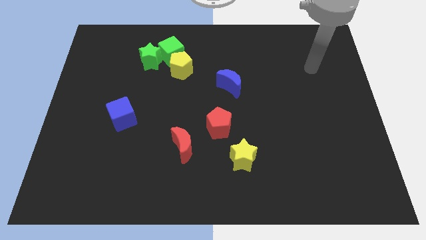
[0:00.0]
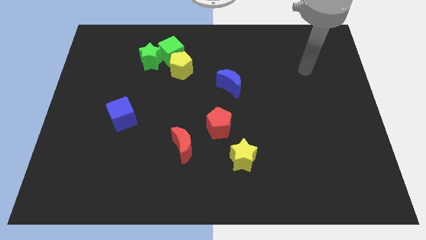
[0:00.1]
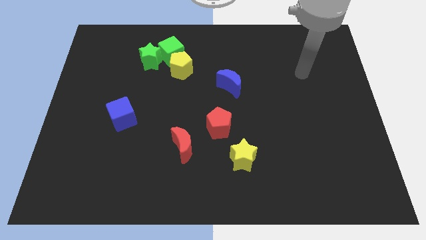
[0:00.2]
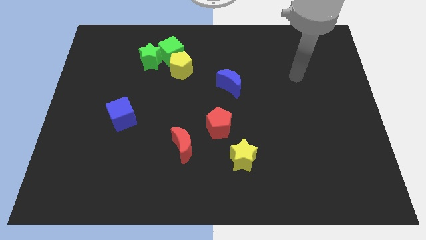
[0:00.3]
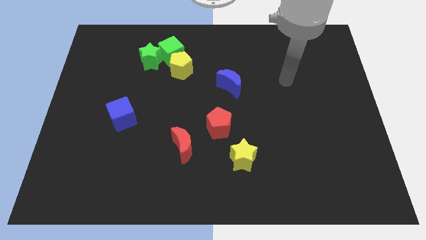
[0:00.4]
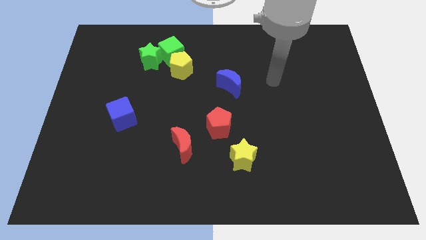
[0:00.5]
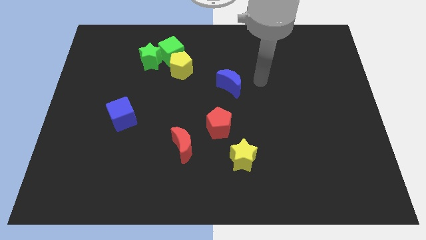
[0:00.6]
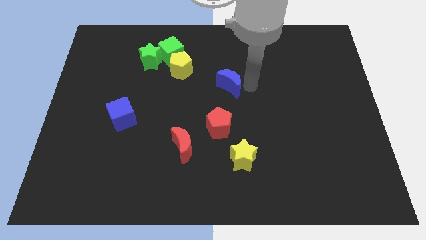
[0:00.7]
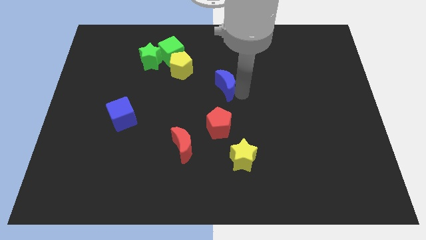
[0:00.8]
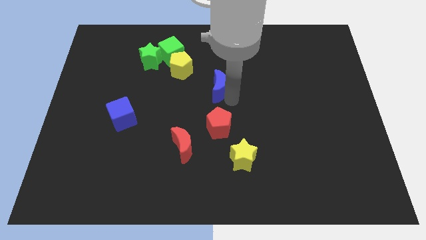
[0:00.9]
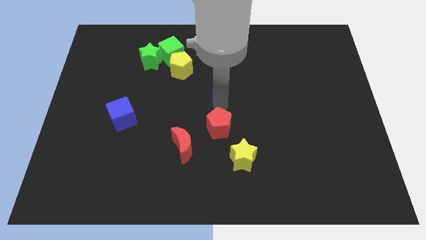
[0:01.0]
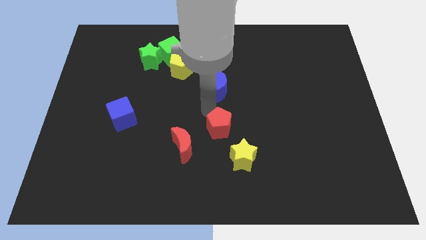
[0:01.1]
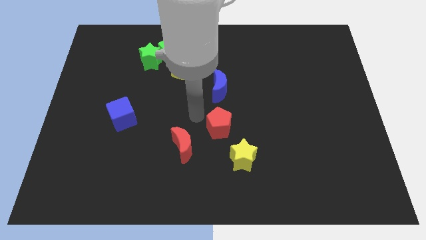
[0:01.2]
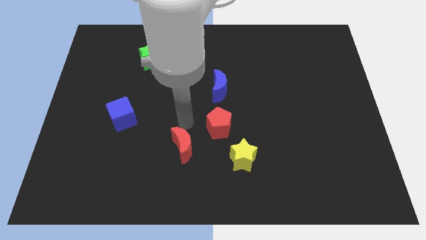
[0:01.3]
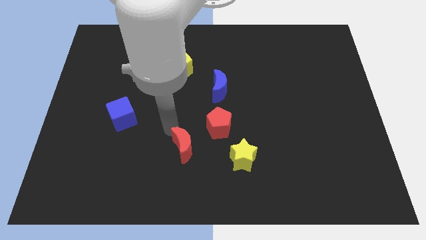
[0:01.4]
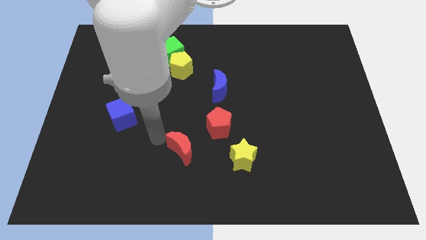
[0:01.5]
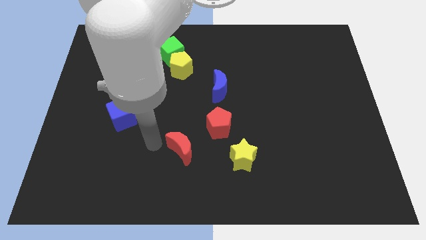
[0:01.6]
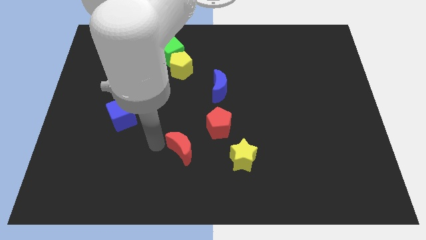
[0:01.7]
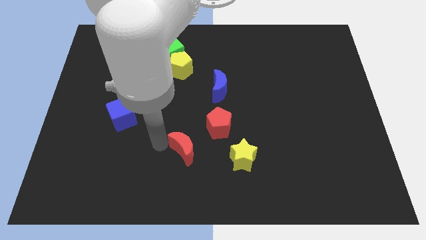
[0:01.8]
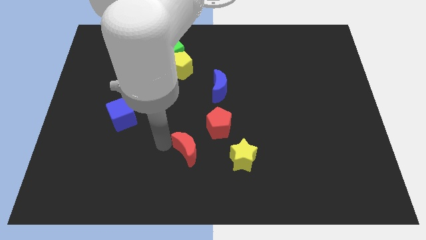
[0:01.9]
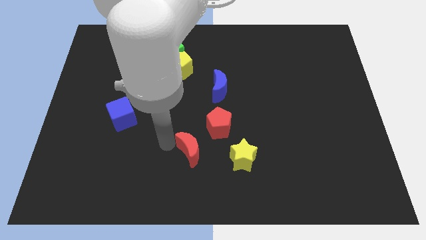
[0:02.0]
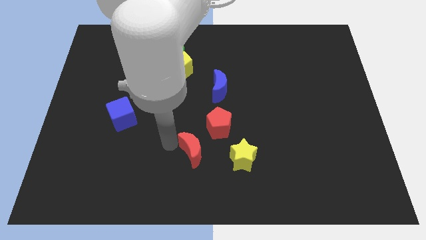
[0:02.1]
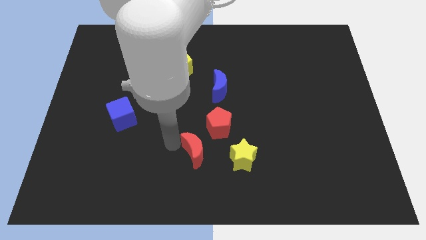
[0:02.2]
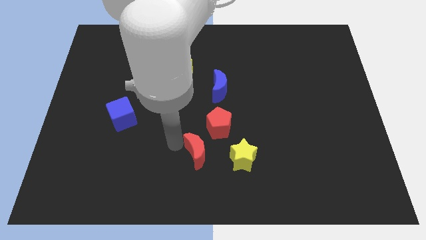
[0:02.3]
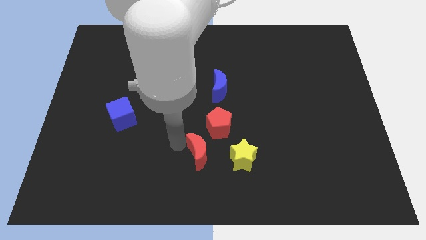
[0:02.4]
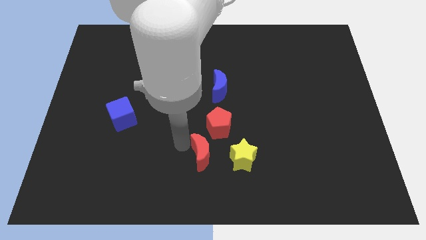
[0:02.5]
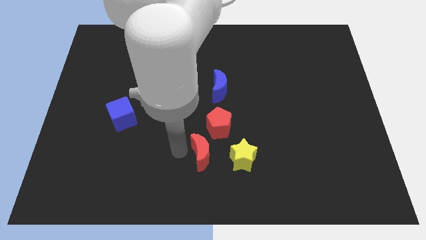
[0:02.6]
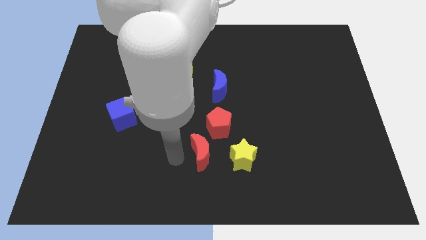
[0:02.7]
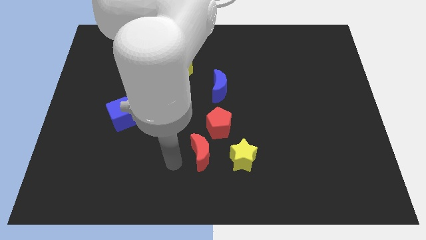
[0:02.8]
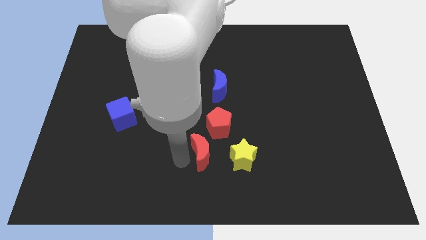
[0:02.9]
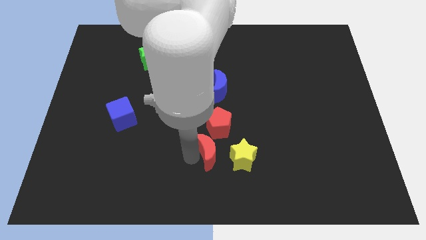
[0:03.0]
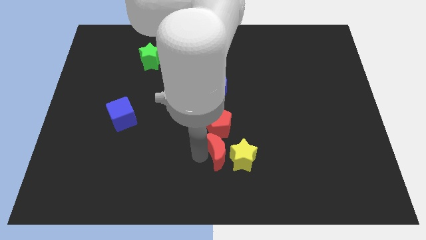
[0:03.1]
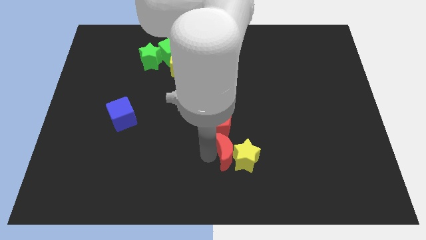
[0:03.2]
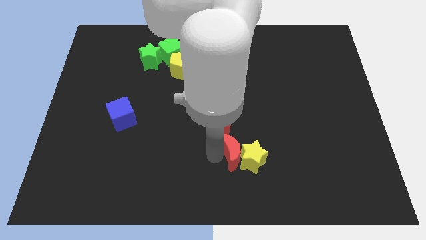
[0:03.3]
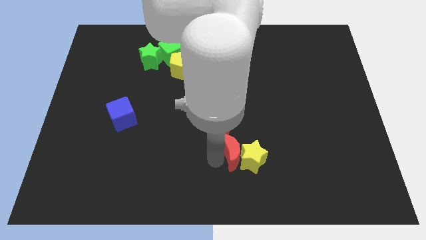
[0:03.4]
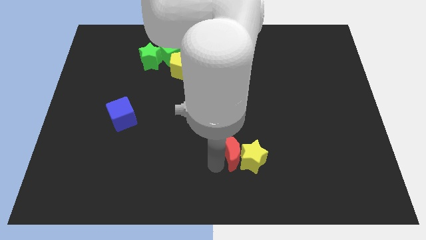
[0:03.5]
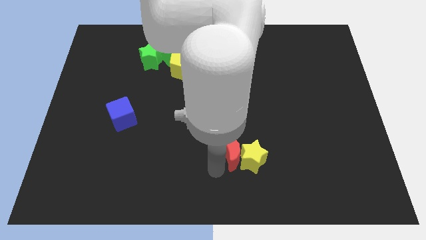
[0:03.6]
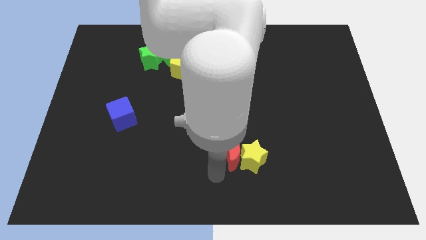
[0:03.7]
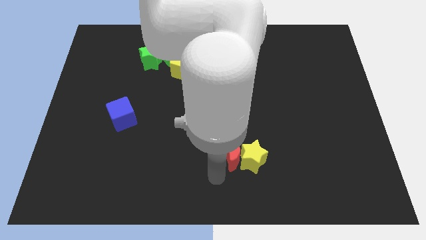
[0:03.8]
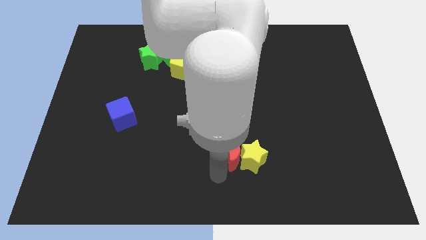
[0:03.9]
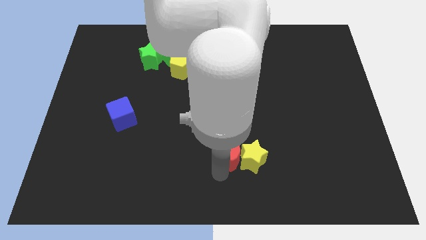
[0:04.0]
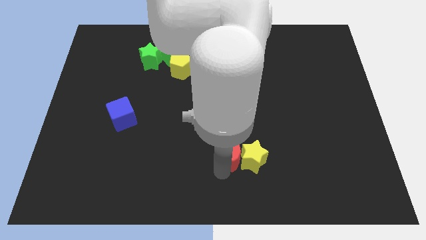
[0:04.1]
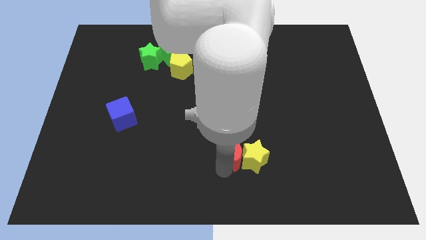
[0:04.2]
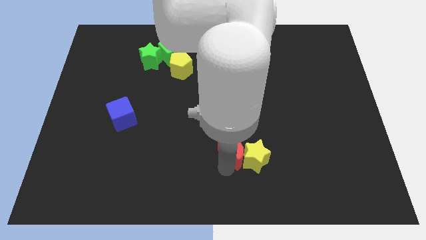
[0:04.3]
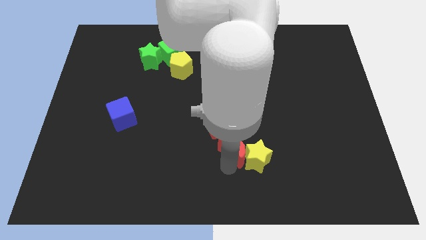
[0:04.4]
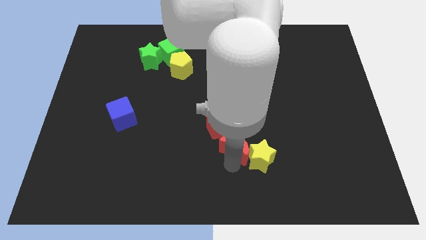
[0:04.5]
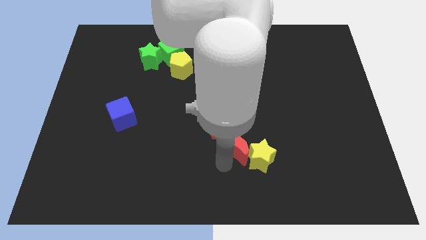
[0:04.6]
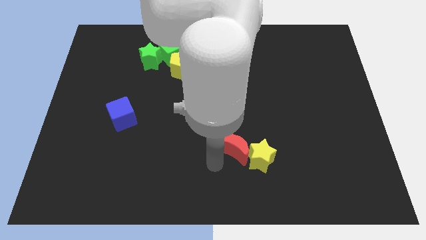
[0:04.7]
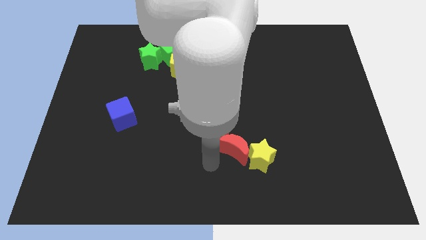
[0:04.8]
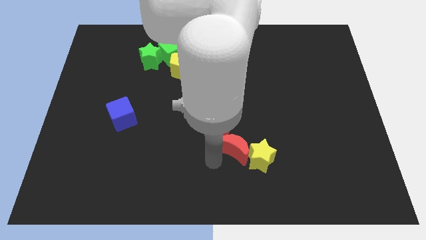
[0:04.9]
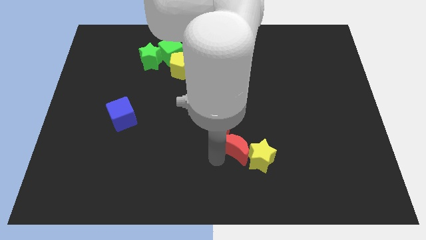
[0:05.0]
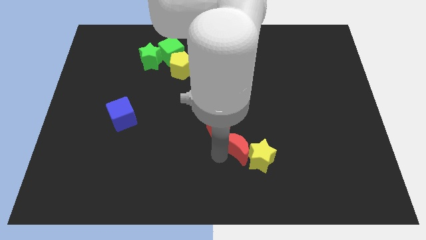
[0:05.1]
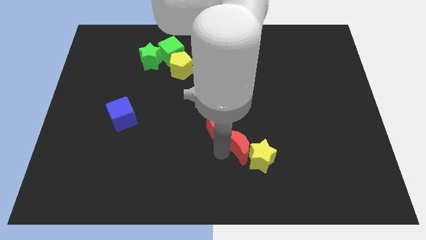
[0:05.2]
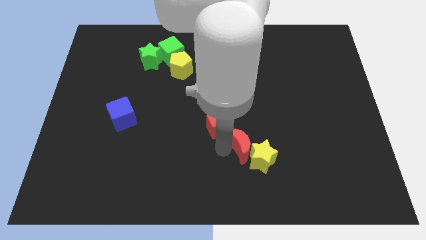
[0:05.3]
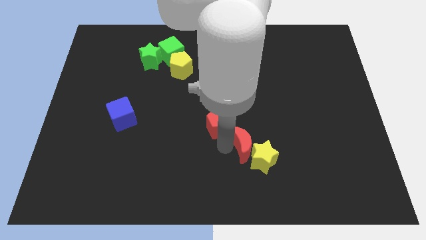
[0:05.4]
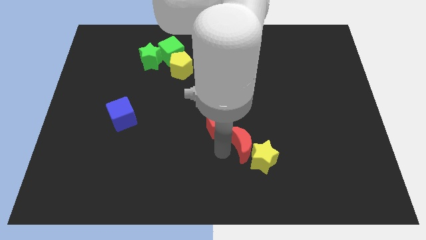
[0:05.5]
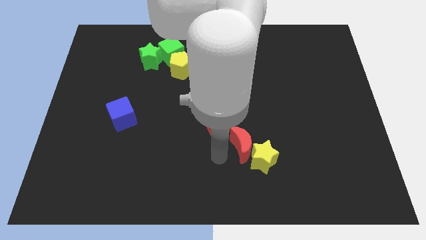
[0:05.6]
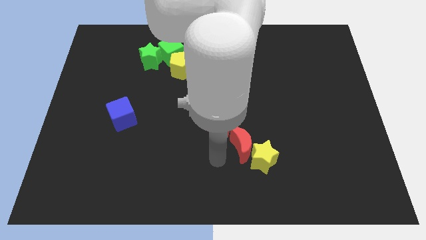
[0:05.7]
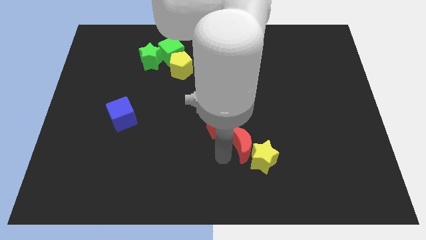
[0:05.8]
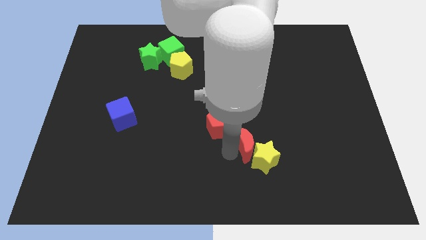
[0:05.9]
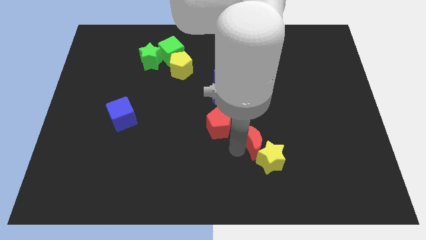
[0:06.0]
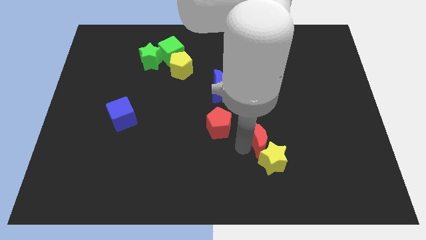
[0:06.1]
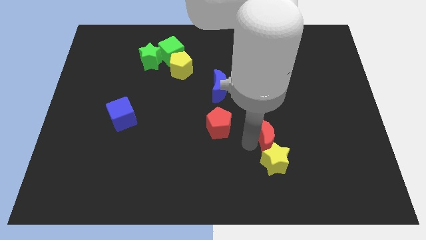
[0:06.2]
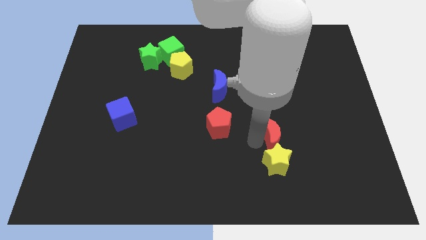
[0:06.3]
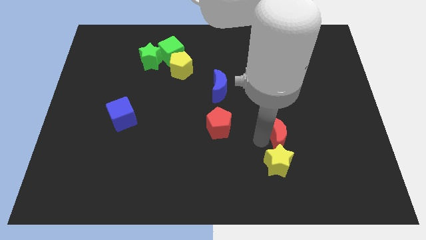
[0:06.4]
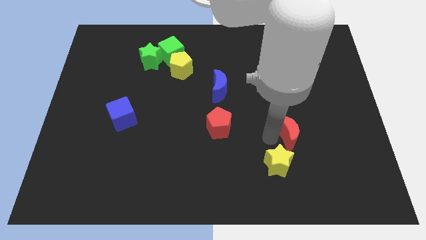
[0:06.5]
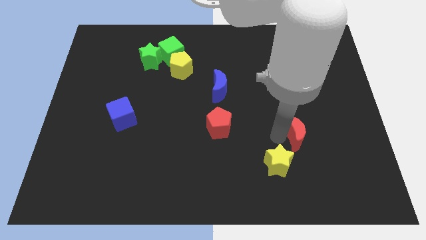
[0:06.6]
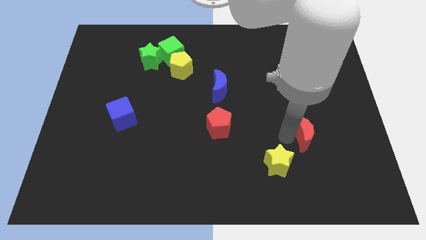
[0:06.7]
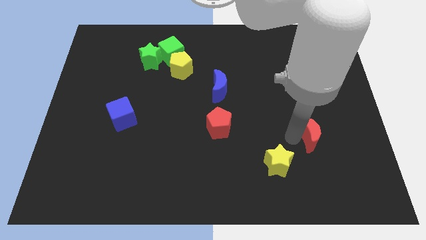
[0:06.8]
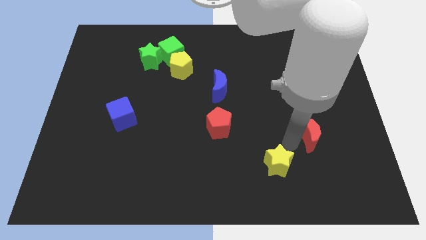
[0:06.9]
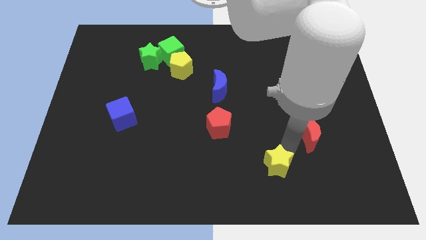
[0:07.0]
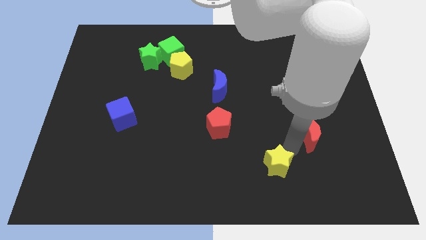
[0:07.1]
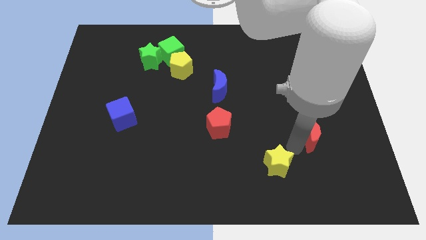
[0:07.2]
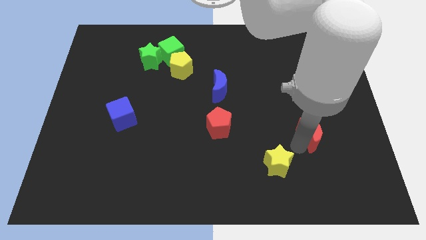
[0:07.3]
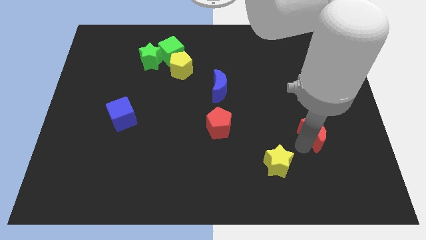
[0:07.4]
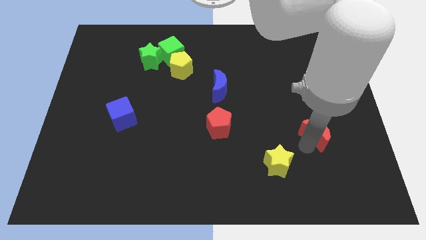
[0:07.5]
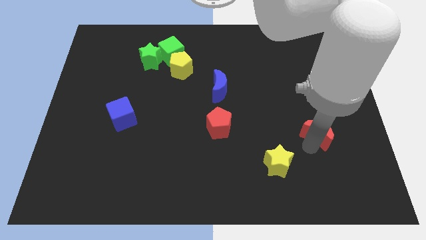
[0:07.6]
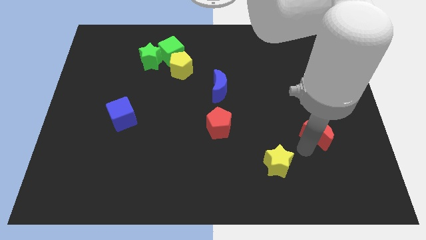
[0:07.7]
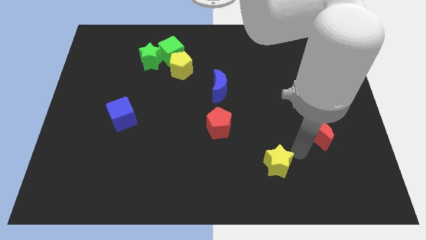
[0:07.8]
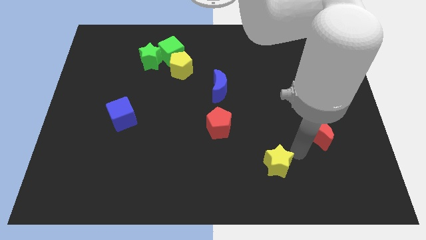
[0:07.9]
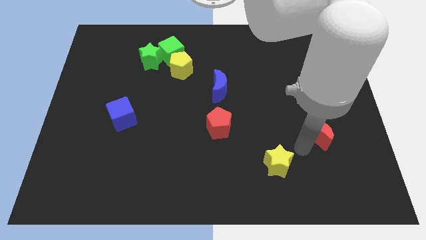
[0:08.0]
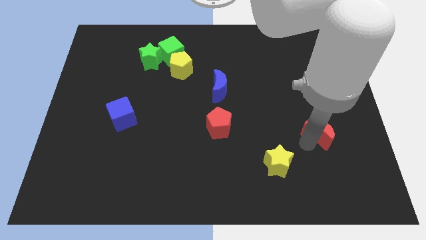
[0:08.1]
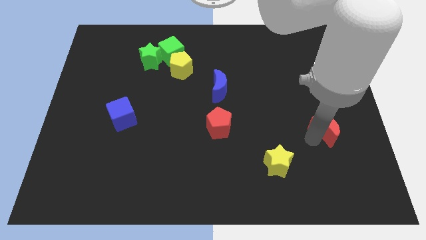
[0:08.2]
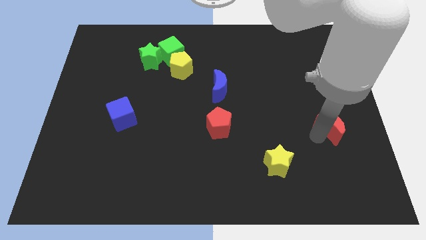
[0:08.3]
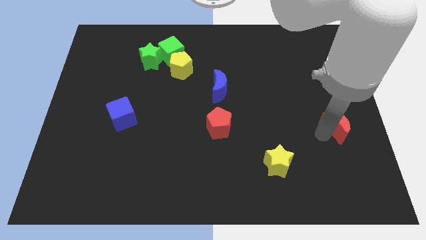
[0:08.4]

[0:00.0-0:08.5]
slide the red moon to the right side
